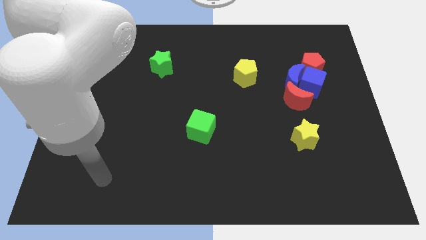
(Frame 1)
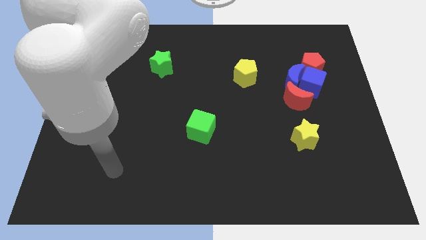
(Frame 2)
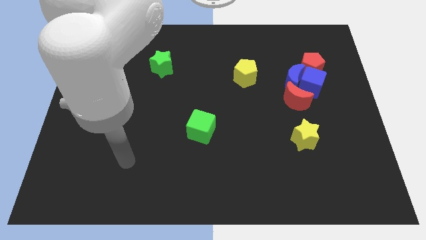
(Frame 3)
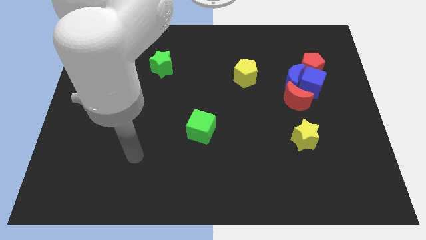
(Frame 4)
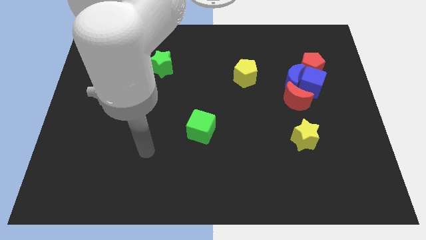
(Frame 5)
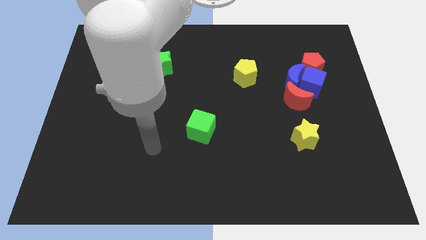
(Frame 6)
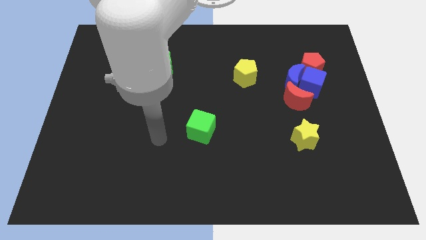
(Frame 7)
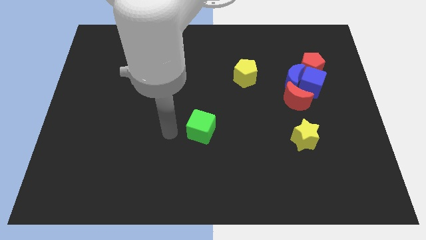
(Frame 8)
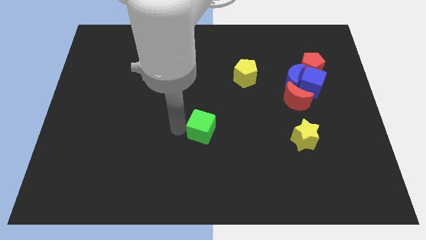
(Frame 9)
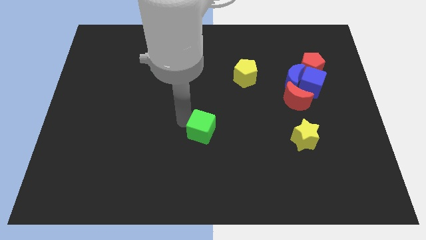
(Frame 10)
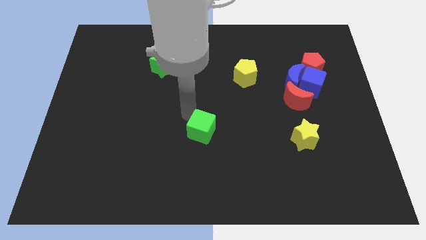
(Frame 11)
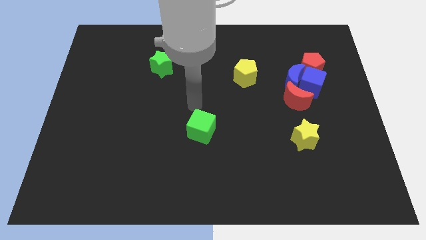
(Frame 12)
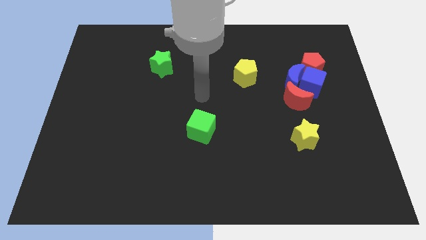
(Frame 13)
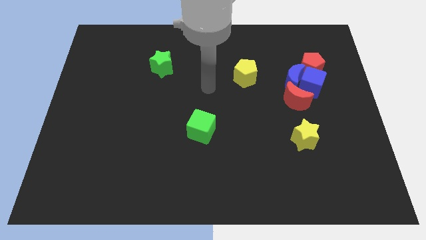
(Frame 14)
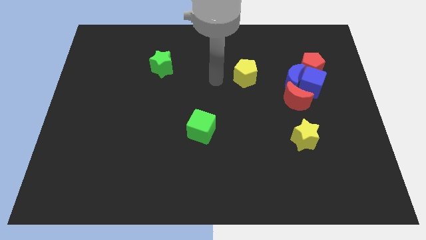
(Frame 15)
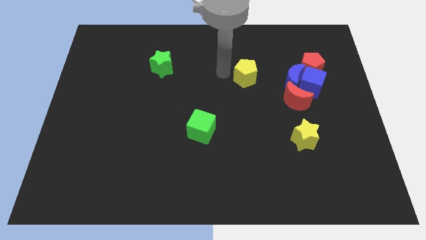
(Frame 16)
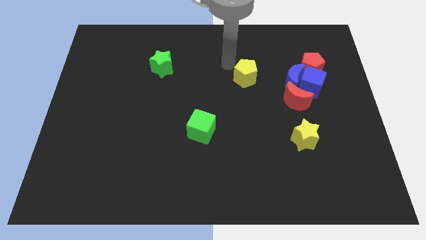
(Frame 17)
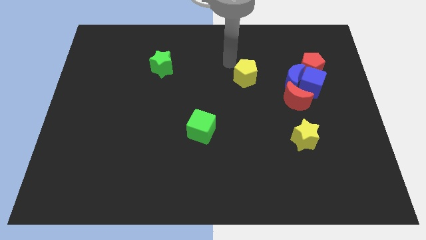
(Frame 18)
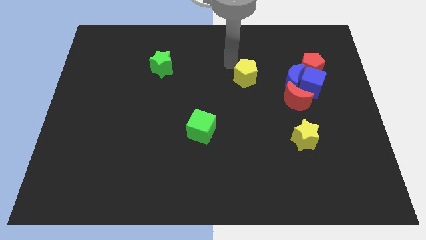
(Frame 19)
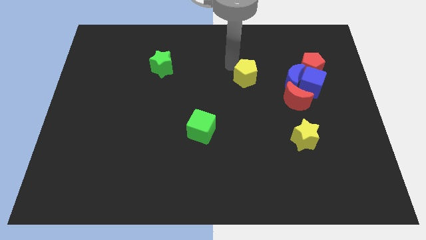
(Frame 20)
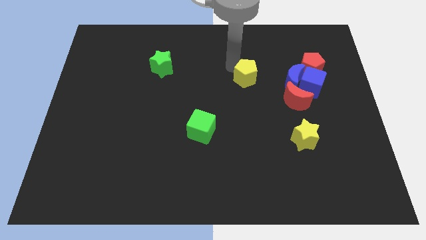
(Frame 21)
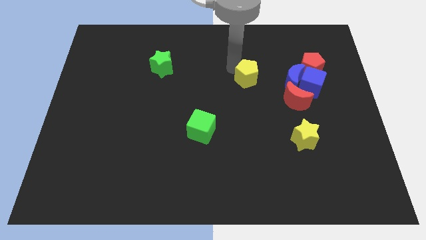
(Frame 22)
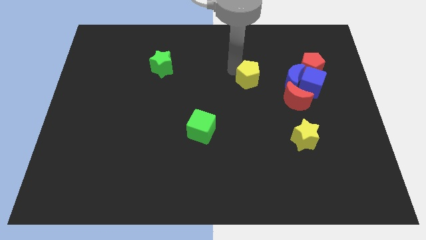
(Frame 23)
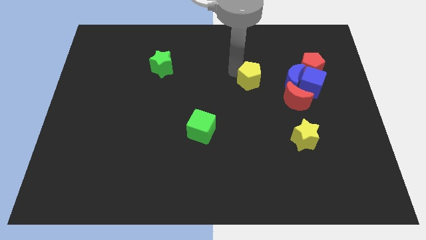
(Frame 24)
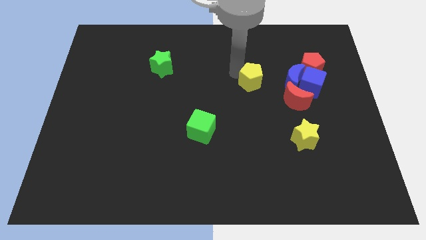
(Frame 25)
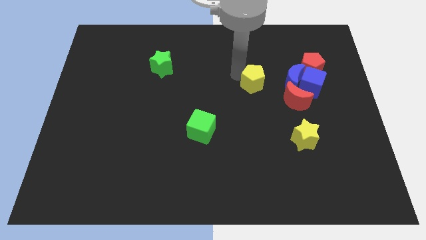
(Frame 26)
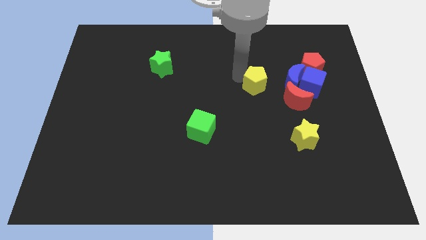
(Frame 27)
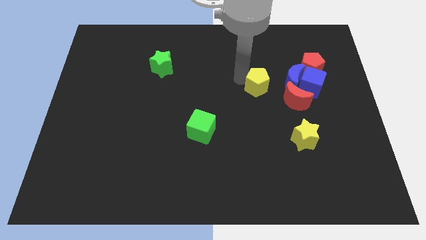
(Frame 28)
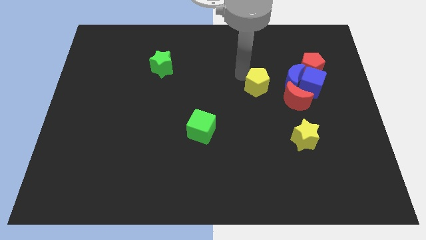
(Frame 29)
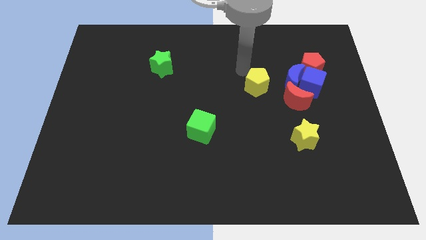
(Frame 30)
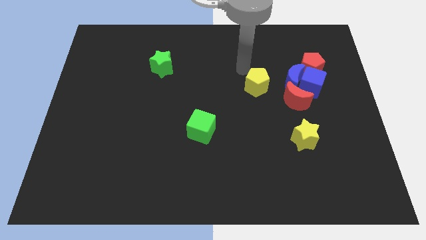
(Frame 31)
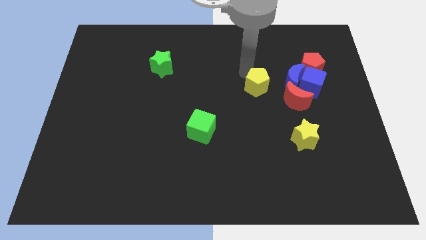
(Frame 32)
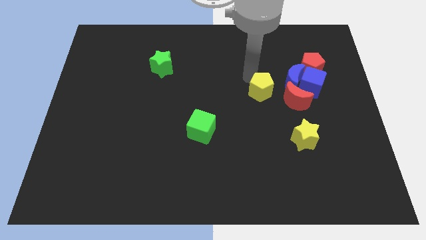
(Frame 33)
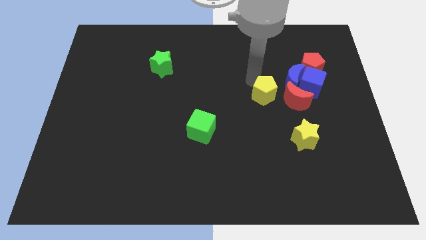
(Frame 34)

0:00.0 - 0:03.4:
move the yellow pentagon down and then right a little

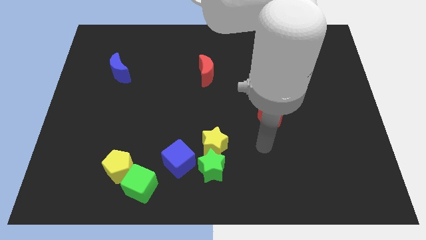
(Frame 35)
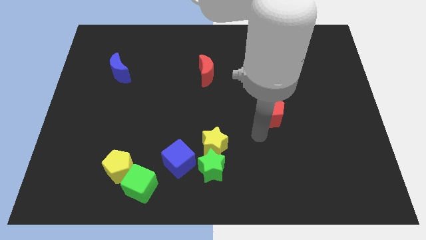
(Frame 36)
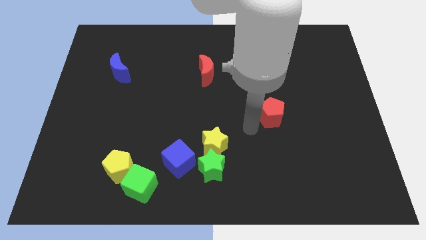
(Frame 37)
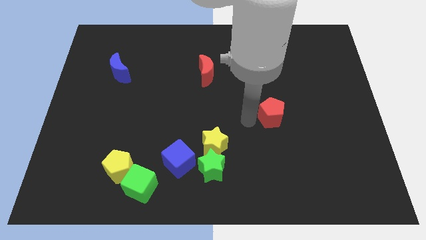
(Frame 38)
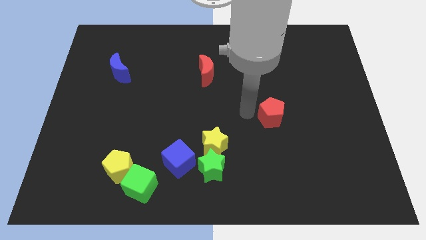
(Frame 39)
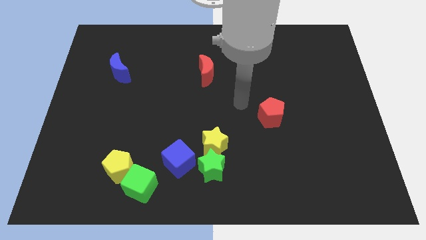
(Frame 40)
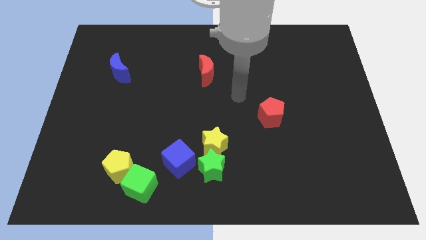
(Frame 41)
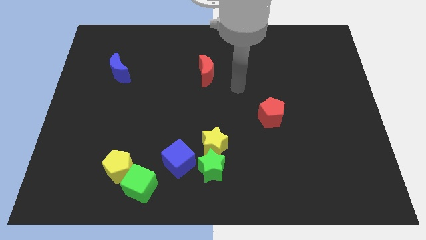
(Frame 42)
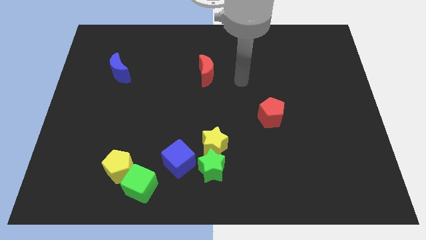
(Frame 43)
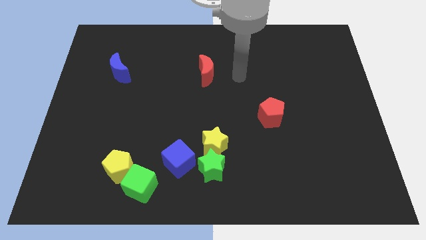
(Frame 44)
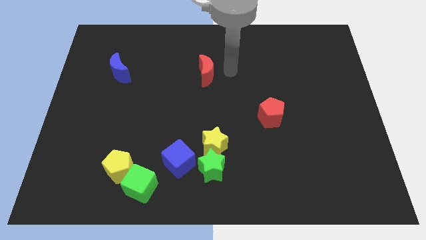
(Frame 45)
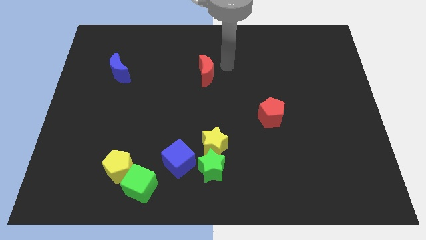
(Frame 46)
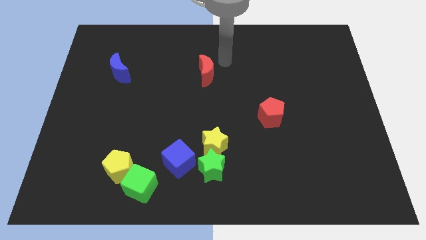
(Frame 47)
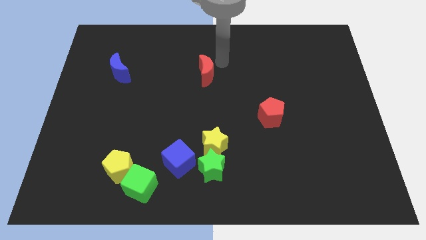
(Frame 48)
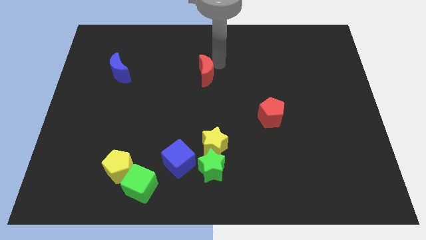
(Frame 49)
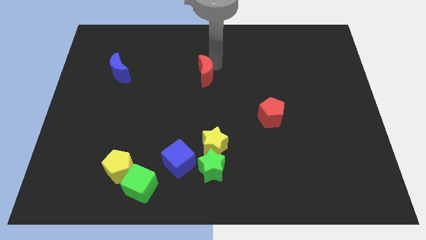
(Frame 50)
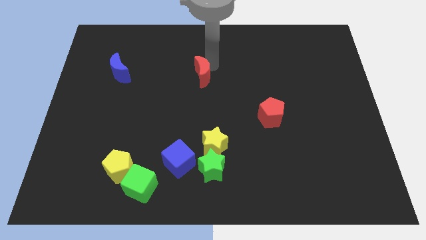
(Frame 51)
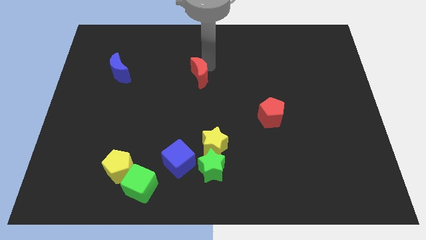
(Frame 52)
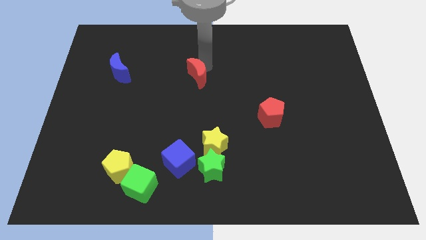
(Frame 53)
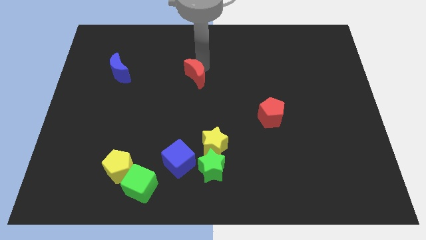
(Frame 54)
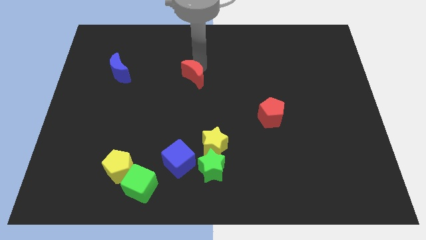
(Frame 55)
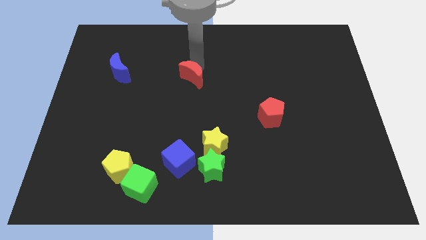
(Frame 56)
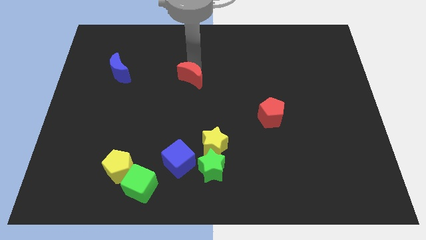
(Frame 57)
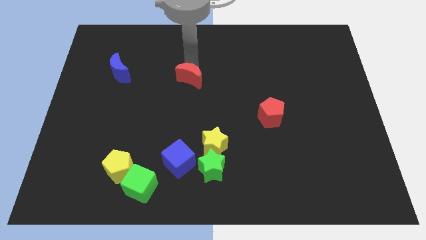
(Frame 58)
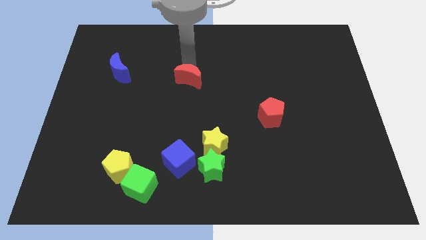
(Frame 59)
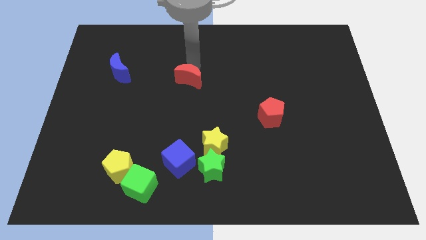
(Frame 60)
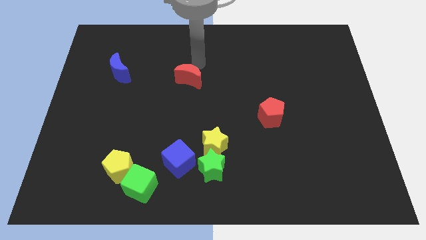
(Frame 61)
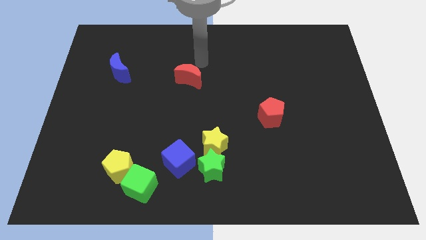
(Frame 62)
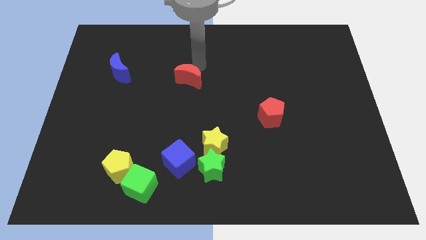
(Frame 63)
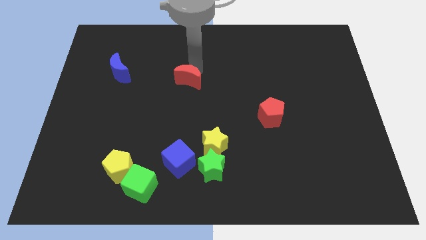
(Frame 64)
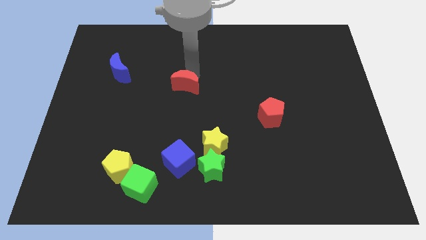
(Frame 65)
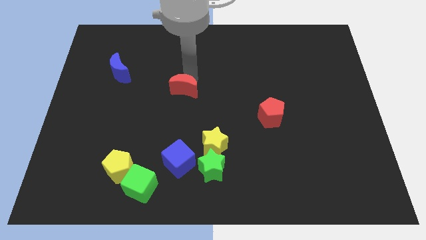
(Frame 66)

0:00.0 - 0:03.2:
slightly move the red moon downwards and left

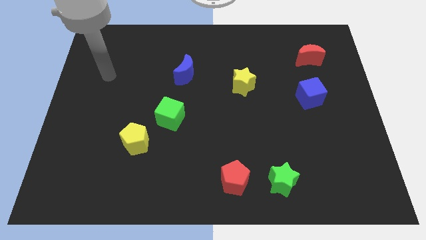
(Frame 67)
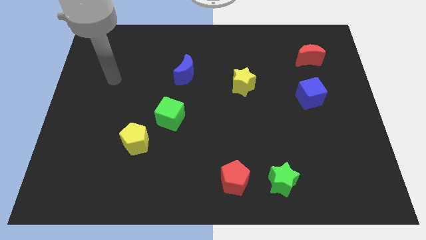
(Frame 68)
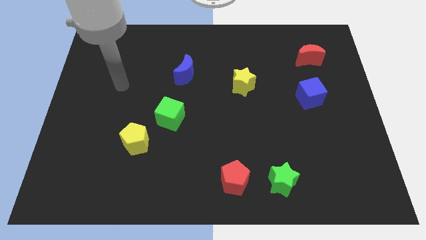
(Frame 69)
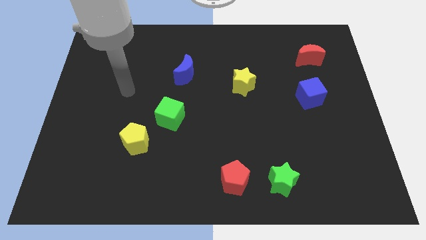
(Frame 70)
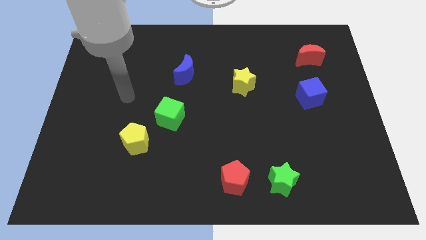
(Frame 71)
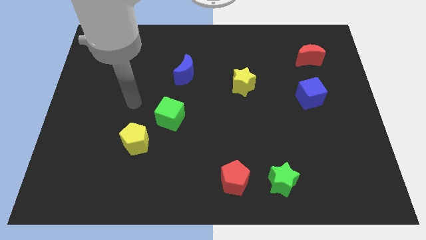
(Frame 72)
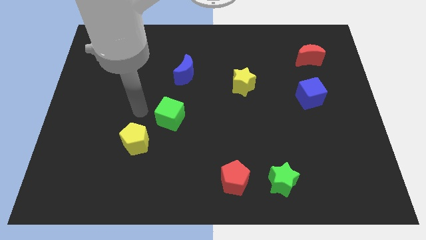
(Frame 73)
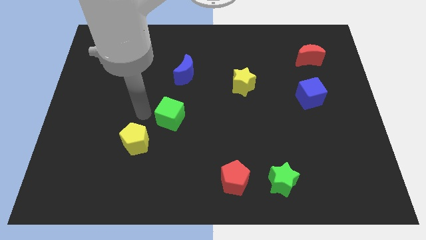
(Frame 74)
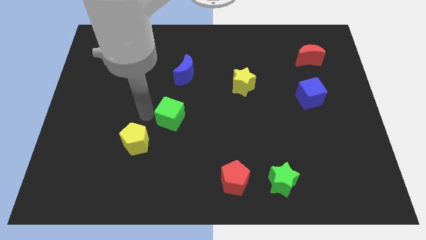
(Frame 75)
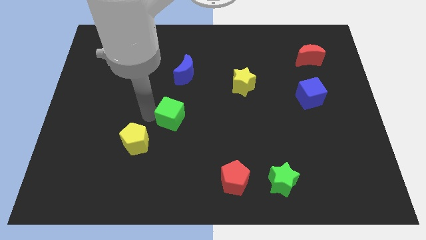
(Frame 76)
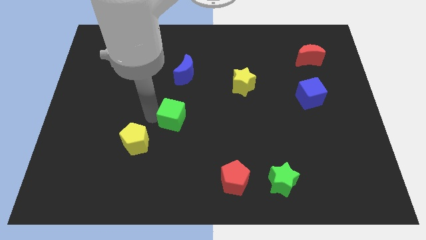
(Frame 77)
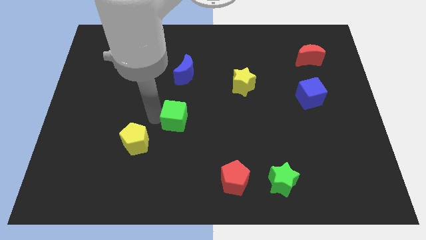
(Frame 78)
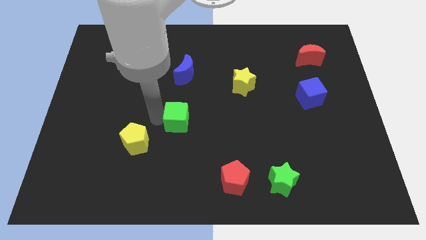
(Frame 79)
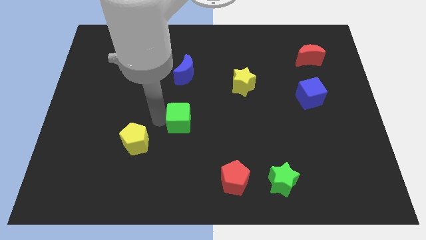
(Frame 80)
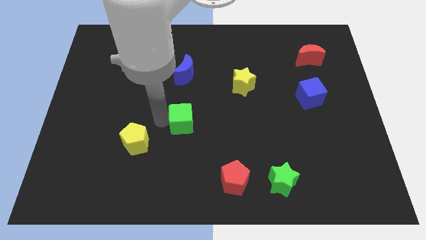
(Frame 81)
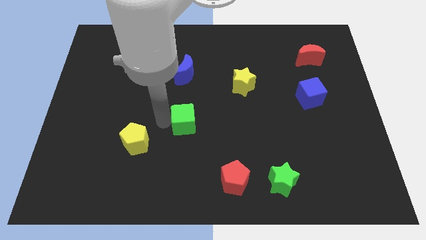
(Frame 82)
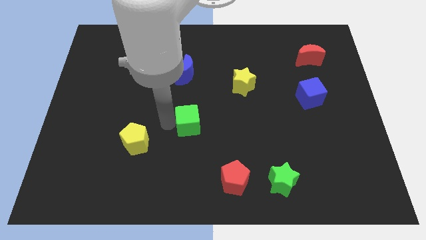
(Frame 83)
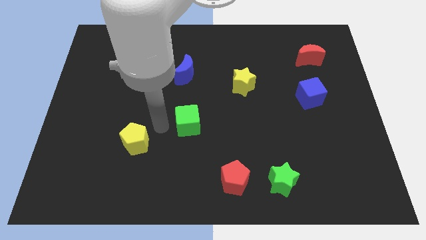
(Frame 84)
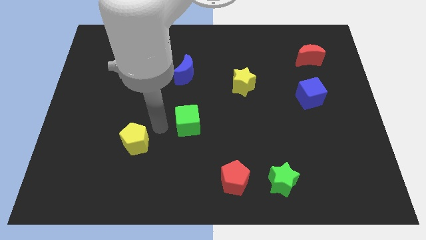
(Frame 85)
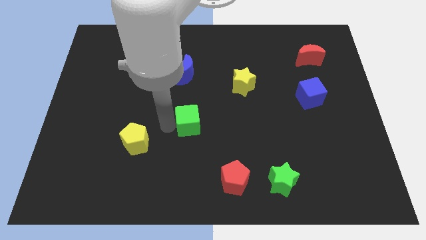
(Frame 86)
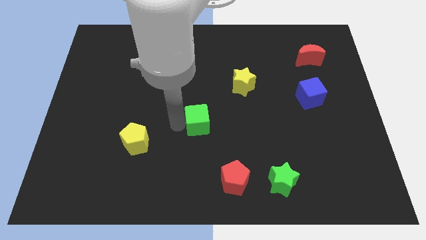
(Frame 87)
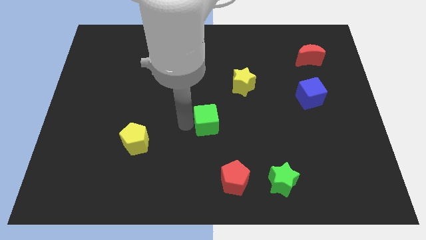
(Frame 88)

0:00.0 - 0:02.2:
slightly slide the green cube right
